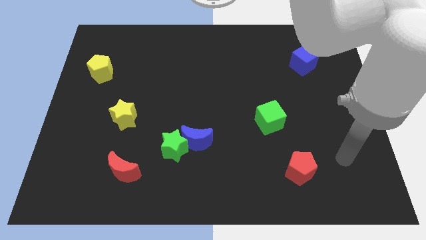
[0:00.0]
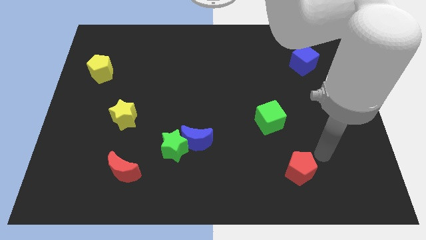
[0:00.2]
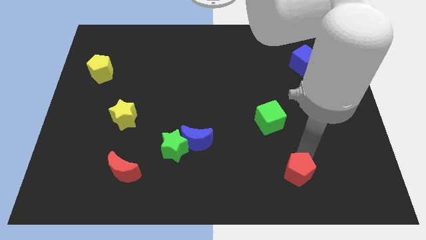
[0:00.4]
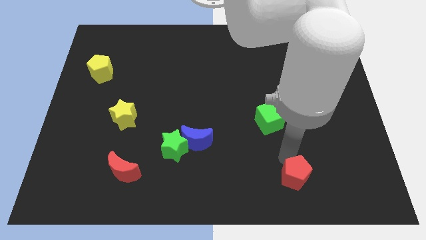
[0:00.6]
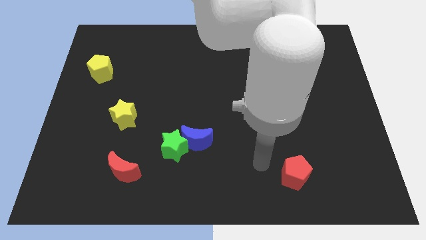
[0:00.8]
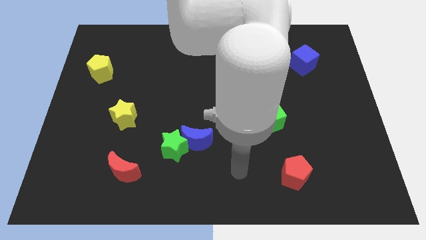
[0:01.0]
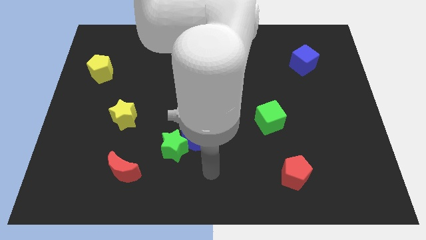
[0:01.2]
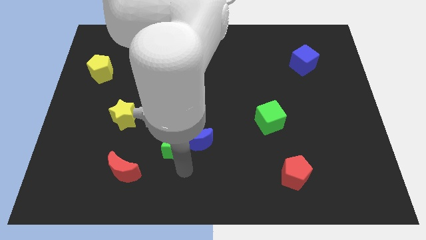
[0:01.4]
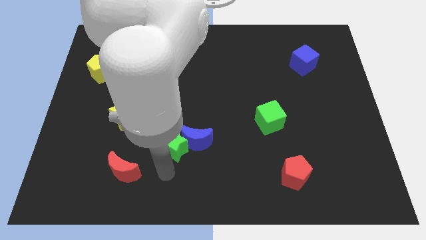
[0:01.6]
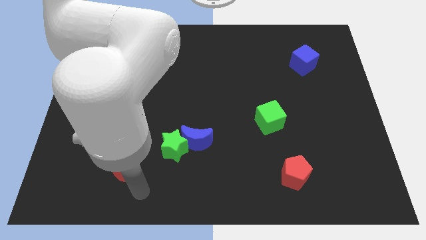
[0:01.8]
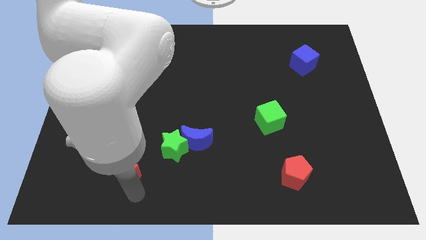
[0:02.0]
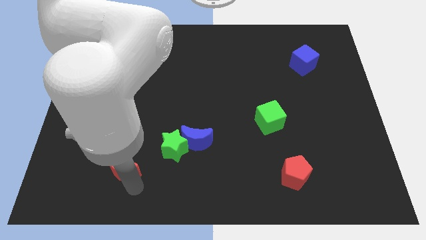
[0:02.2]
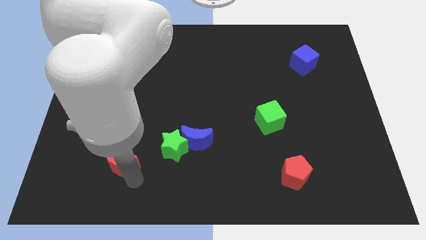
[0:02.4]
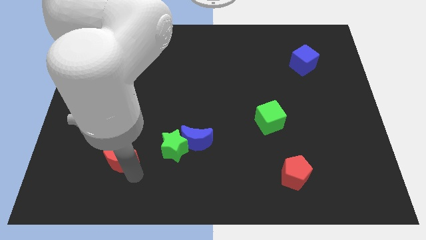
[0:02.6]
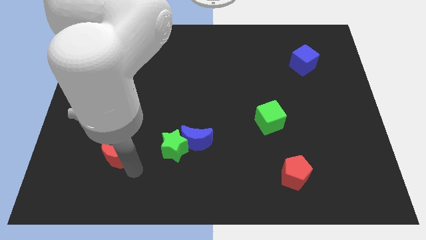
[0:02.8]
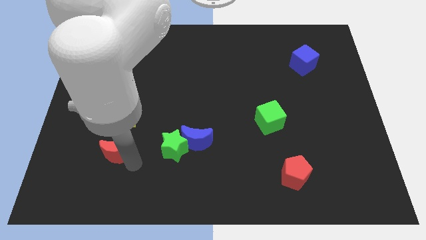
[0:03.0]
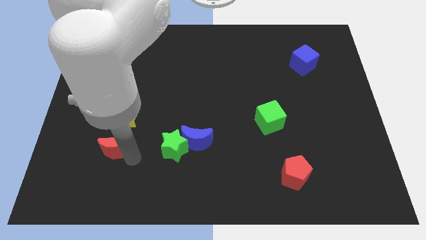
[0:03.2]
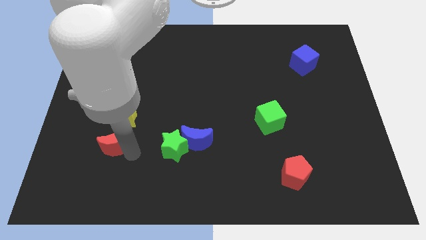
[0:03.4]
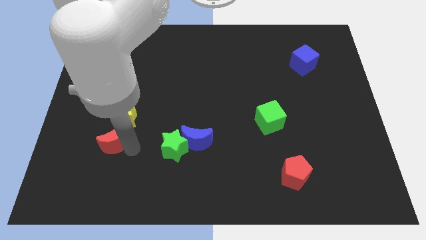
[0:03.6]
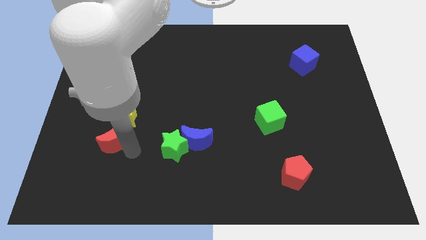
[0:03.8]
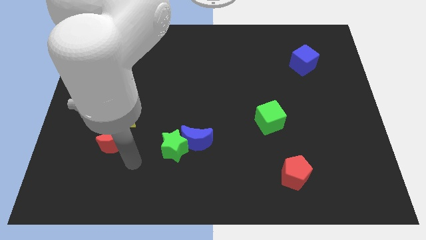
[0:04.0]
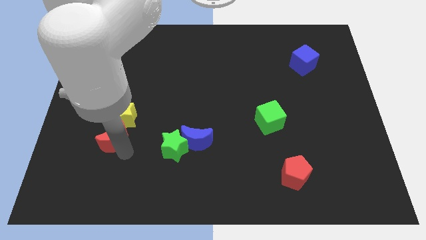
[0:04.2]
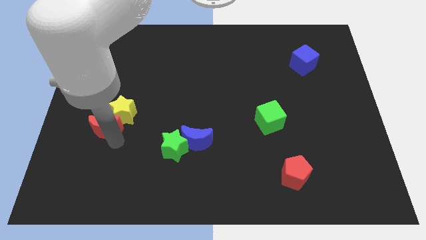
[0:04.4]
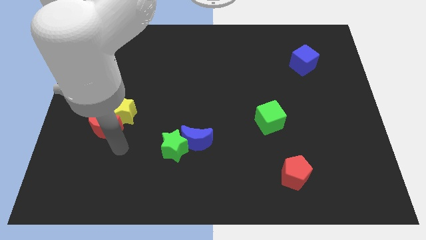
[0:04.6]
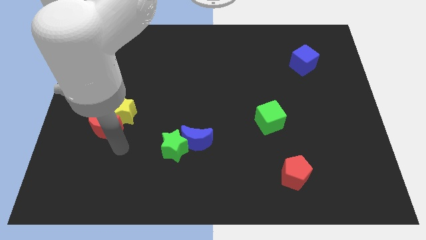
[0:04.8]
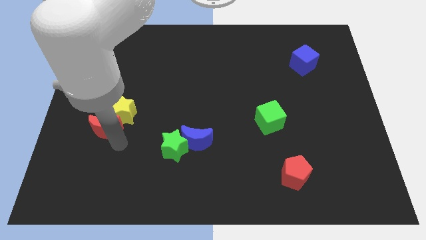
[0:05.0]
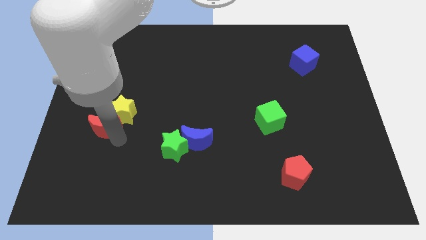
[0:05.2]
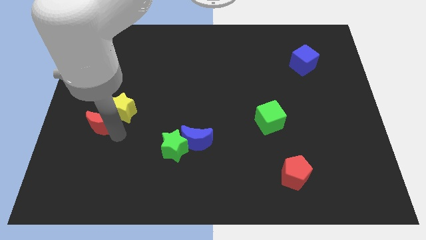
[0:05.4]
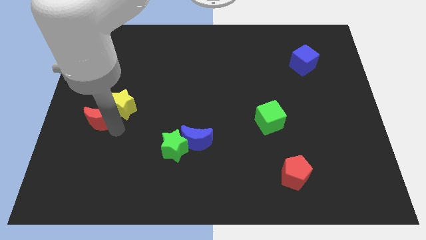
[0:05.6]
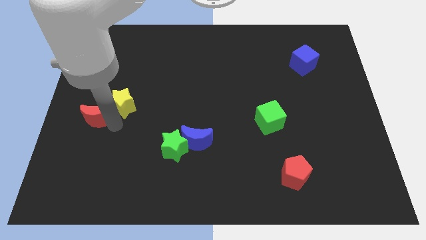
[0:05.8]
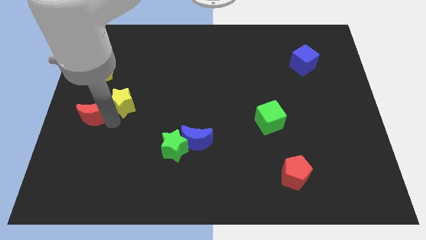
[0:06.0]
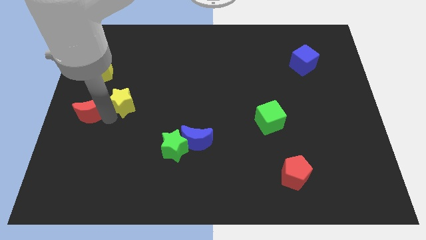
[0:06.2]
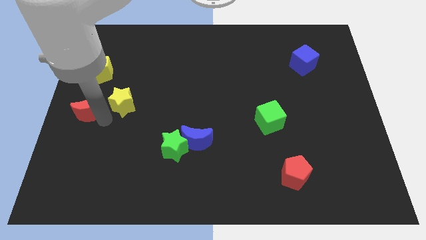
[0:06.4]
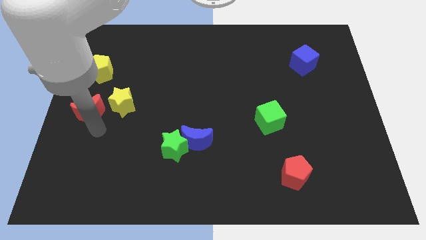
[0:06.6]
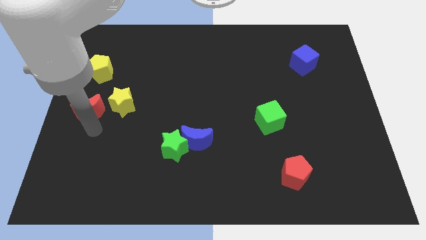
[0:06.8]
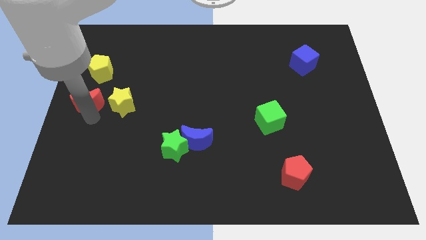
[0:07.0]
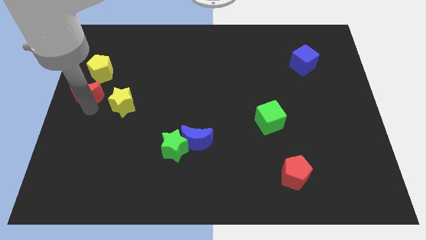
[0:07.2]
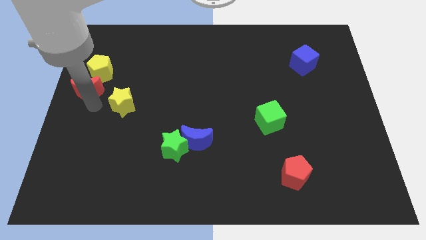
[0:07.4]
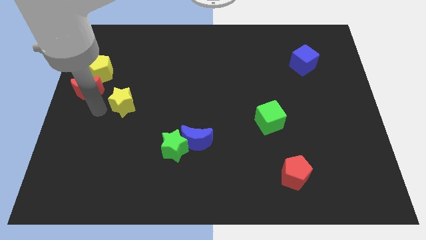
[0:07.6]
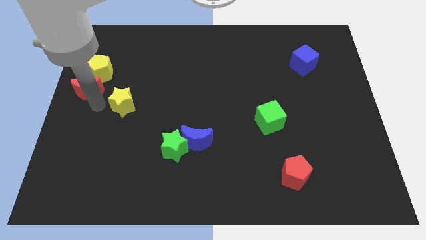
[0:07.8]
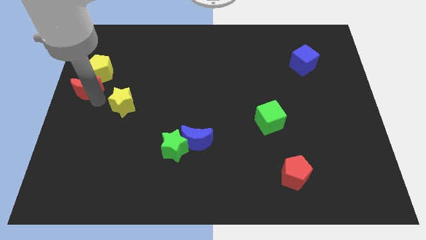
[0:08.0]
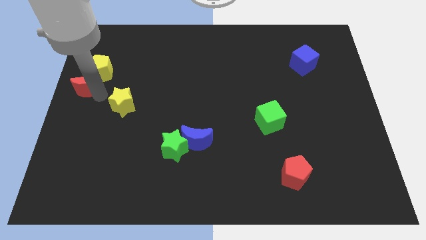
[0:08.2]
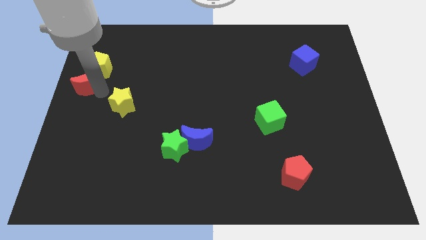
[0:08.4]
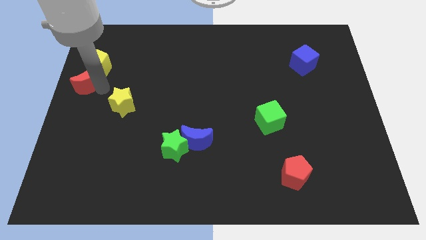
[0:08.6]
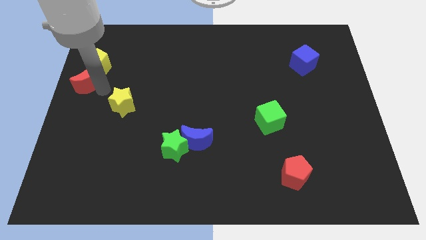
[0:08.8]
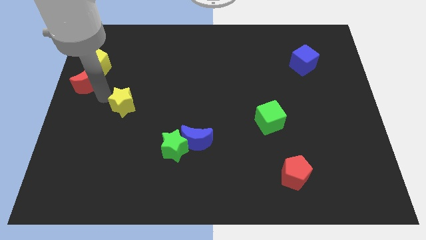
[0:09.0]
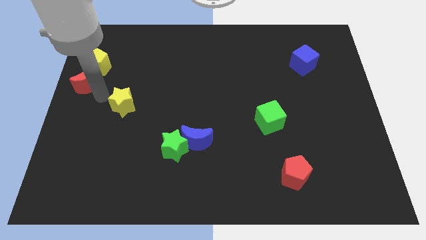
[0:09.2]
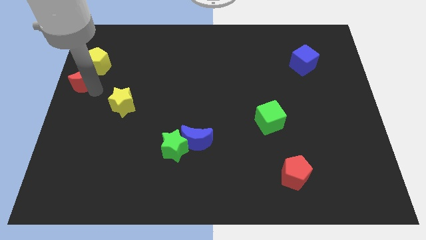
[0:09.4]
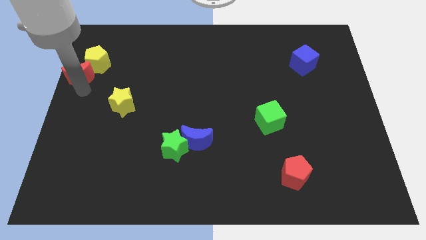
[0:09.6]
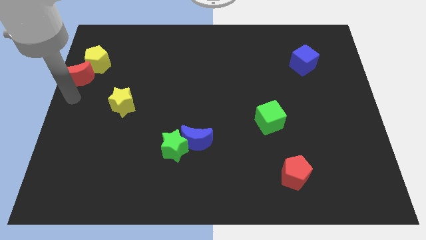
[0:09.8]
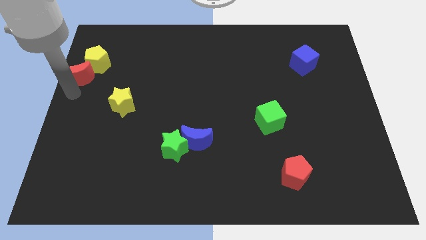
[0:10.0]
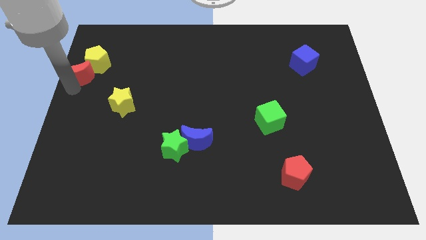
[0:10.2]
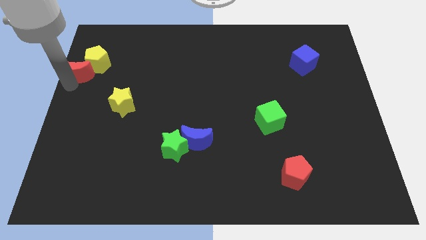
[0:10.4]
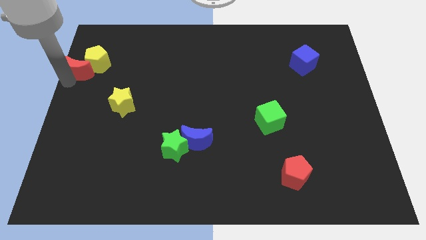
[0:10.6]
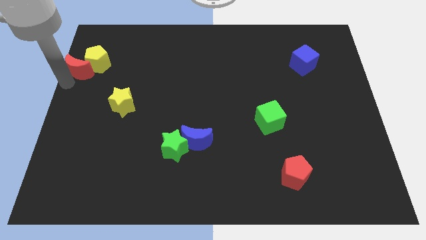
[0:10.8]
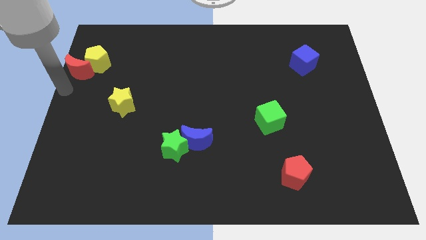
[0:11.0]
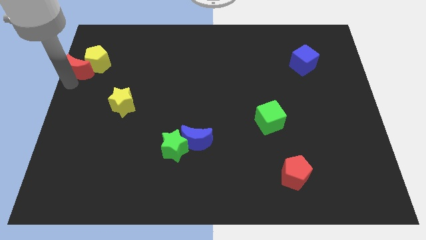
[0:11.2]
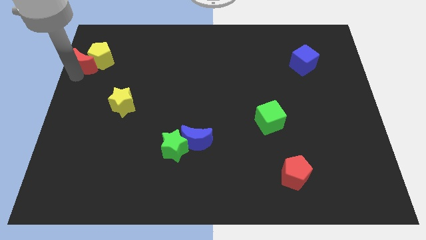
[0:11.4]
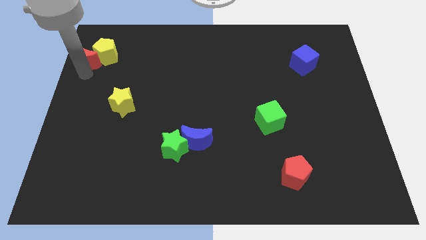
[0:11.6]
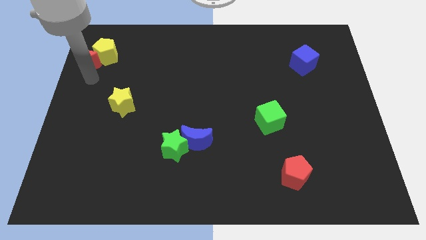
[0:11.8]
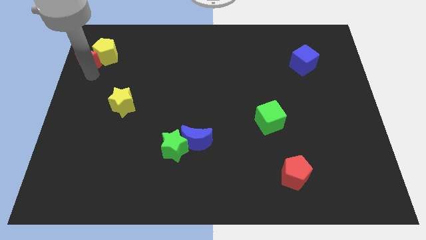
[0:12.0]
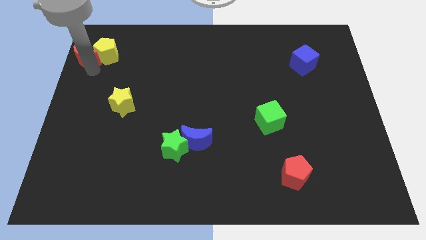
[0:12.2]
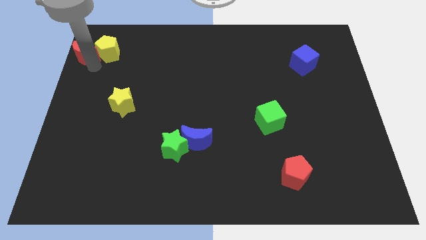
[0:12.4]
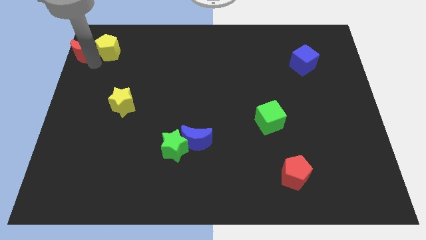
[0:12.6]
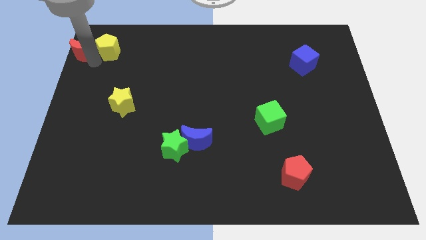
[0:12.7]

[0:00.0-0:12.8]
move the red moon to the top left

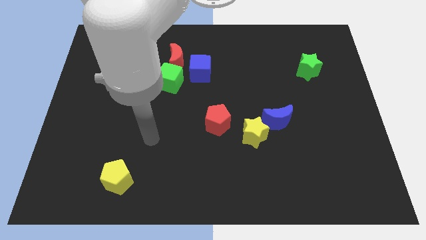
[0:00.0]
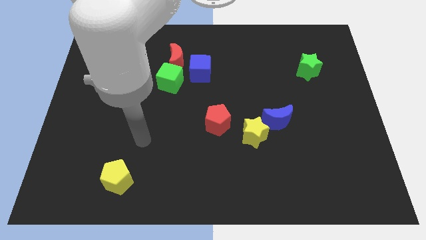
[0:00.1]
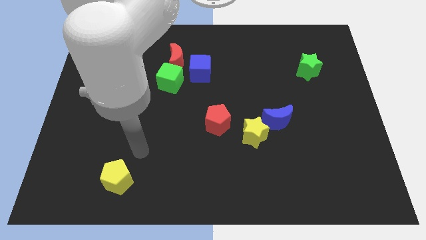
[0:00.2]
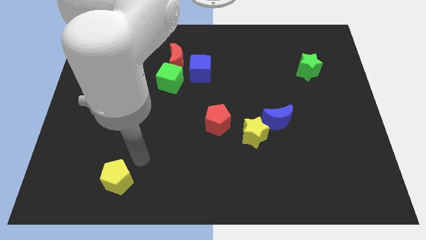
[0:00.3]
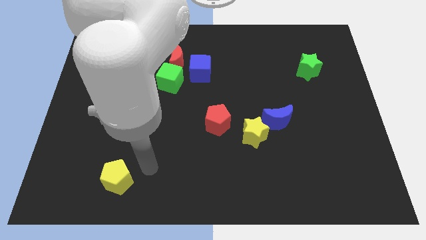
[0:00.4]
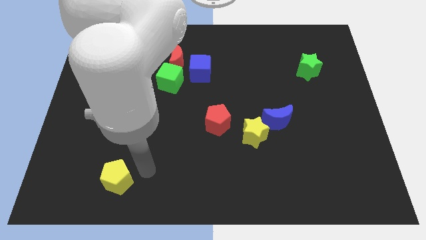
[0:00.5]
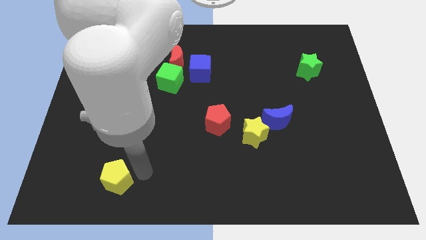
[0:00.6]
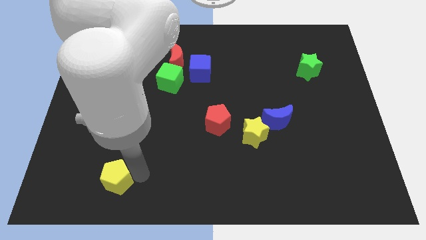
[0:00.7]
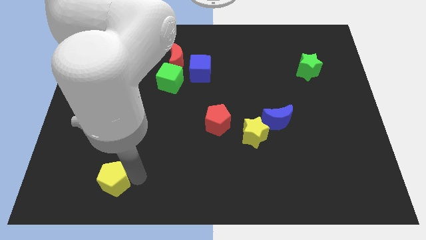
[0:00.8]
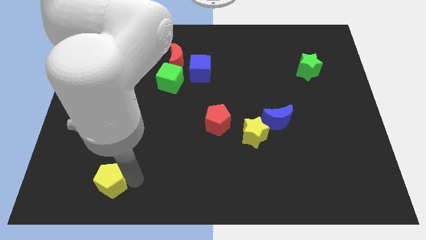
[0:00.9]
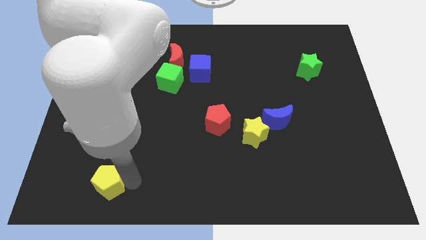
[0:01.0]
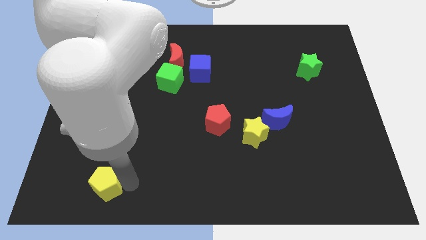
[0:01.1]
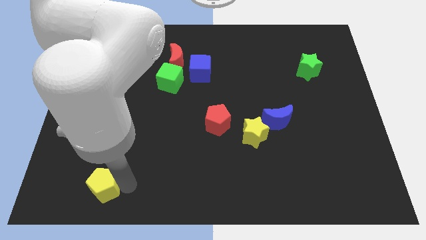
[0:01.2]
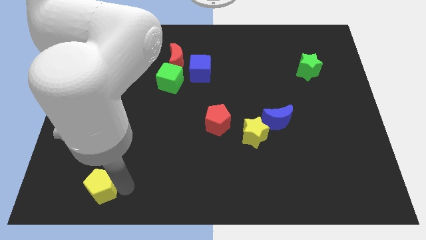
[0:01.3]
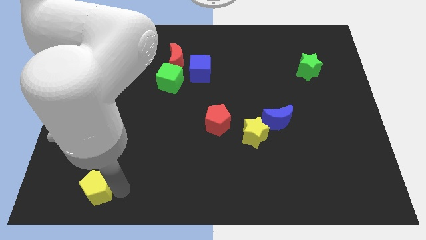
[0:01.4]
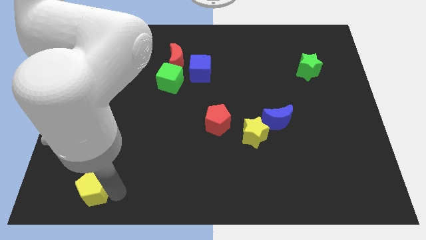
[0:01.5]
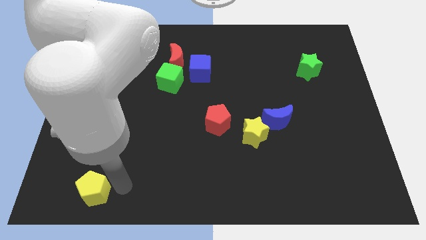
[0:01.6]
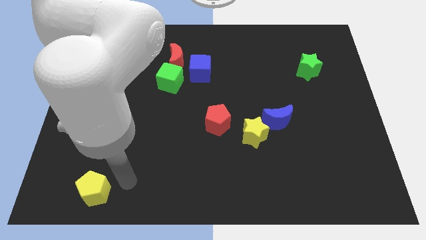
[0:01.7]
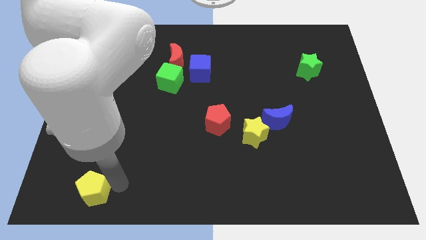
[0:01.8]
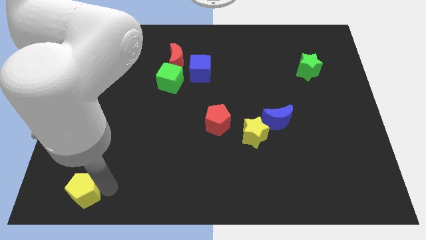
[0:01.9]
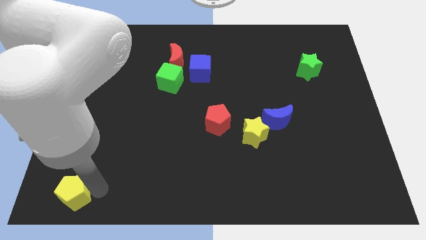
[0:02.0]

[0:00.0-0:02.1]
slide the yellow pentagon to the lower left corner
